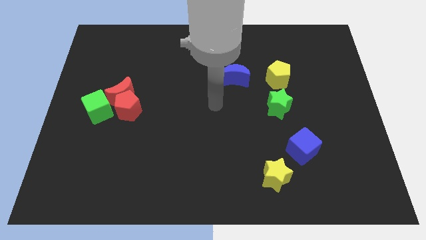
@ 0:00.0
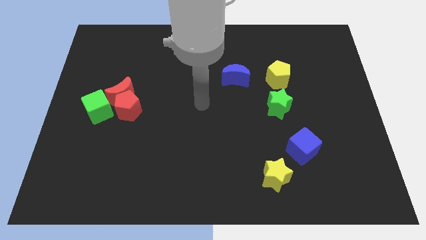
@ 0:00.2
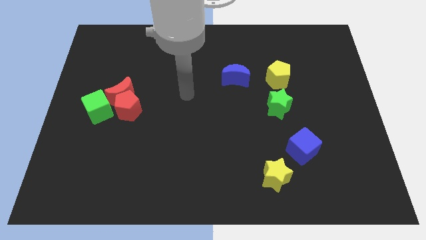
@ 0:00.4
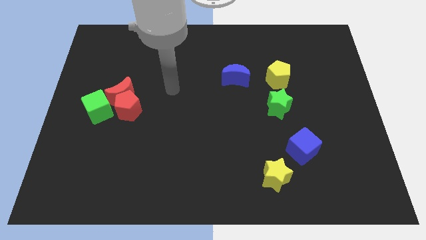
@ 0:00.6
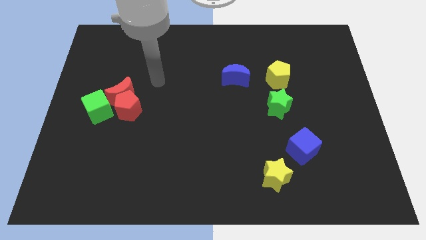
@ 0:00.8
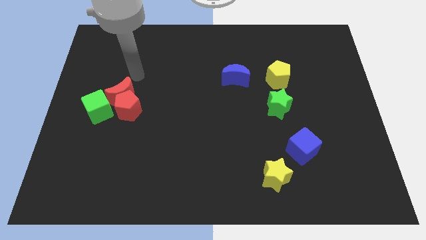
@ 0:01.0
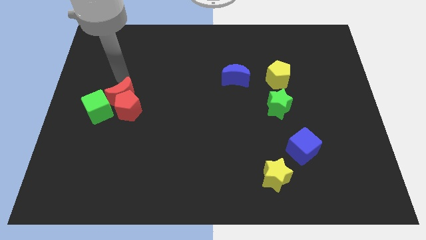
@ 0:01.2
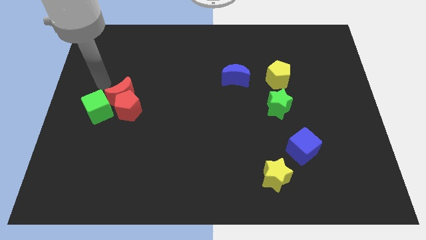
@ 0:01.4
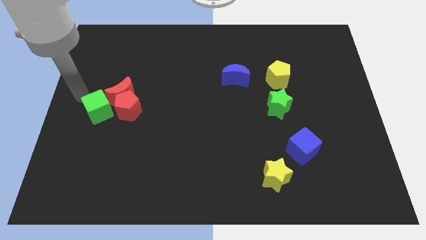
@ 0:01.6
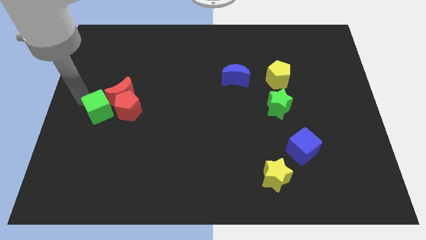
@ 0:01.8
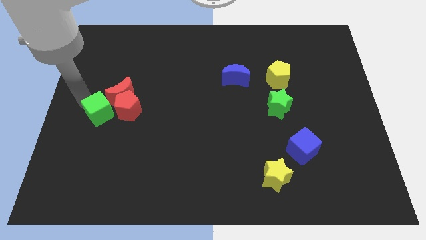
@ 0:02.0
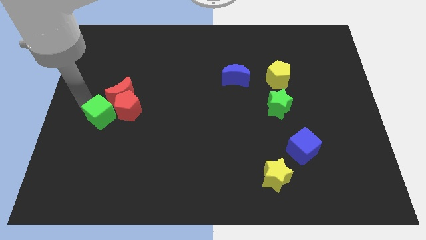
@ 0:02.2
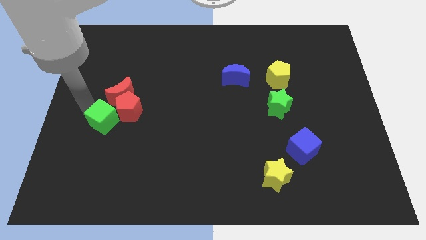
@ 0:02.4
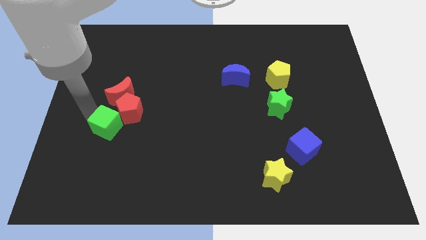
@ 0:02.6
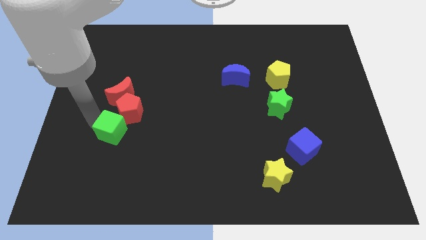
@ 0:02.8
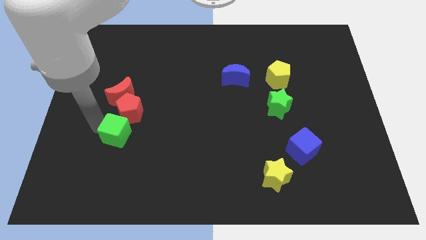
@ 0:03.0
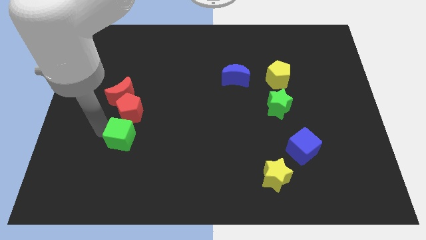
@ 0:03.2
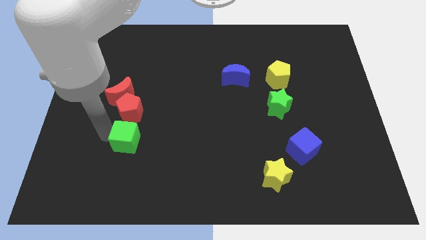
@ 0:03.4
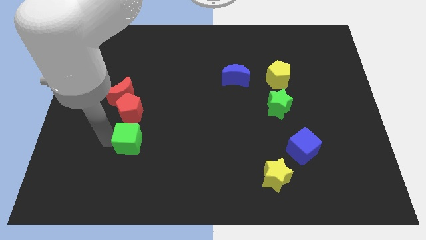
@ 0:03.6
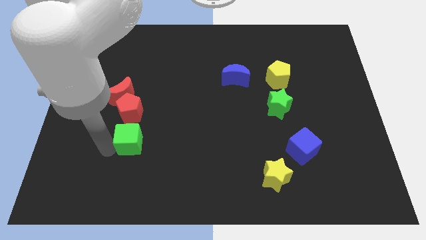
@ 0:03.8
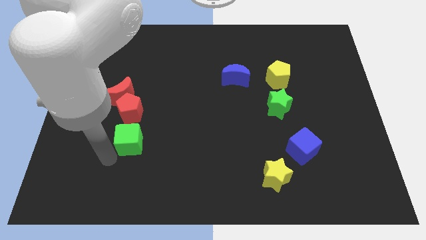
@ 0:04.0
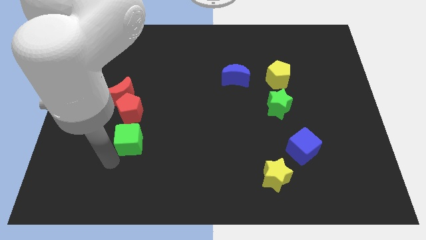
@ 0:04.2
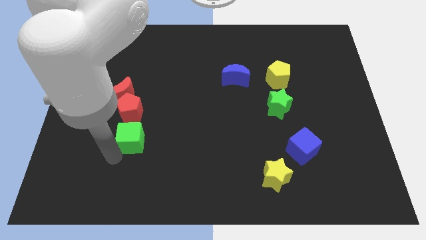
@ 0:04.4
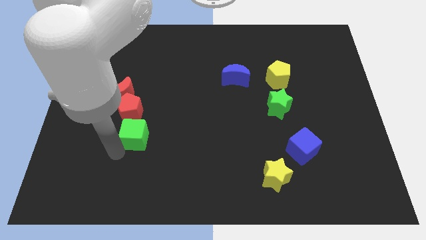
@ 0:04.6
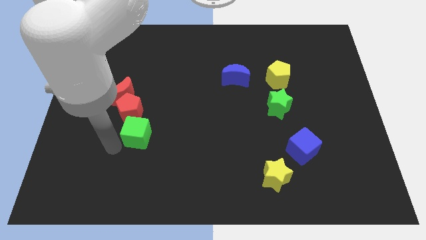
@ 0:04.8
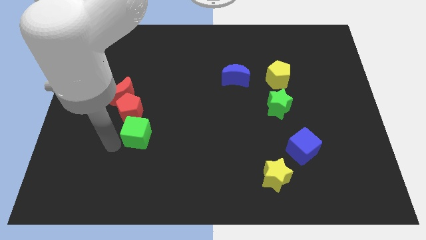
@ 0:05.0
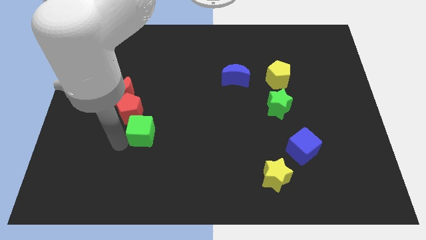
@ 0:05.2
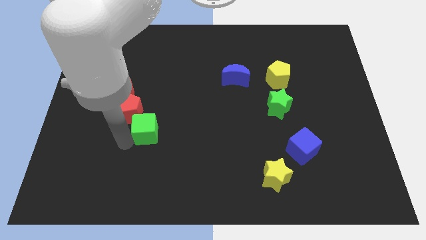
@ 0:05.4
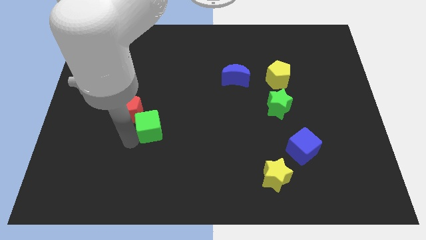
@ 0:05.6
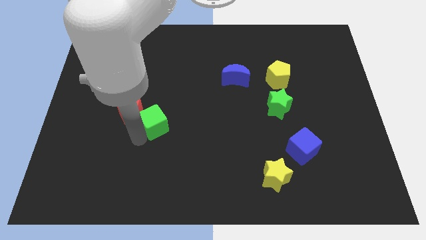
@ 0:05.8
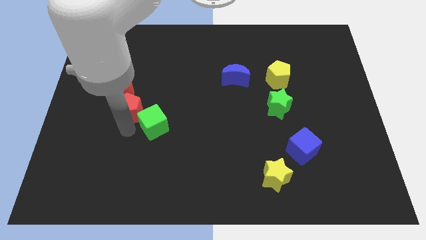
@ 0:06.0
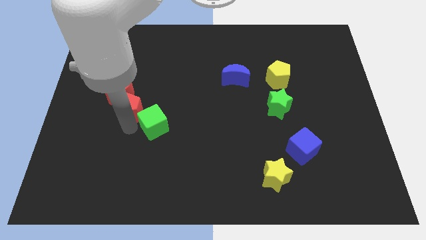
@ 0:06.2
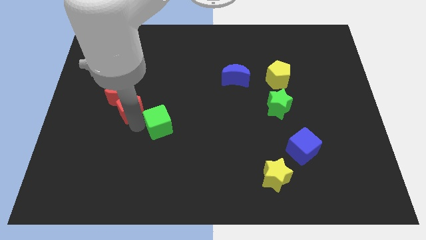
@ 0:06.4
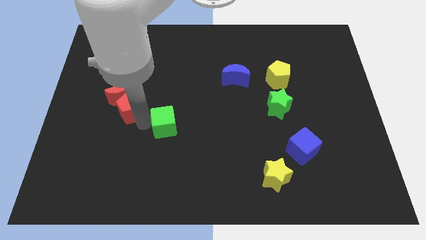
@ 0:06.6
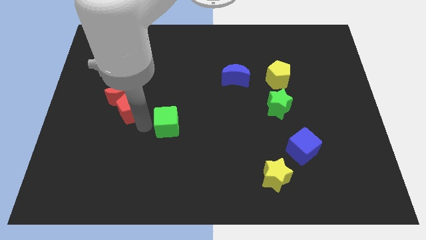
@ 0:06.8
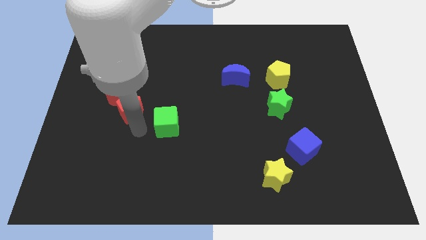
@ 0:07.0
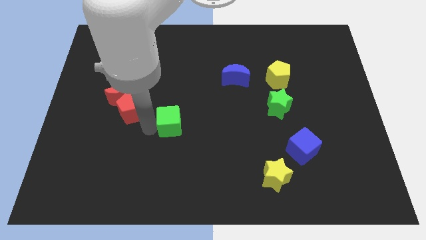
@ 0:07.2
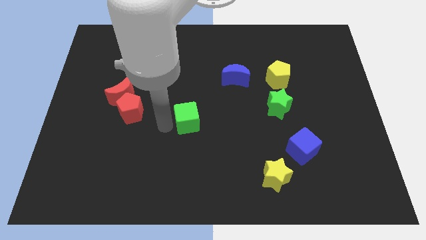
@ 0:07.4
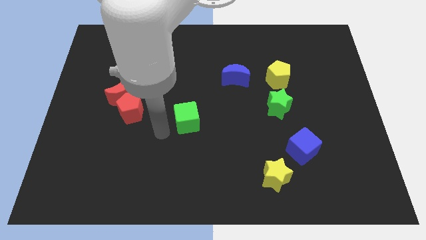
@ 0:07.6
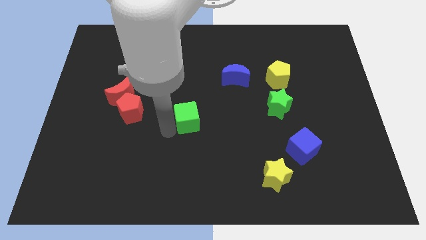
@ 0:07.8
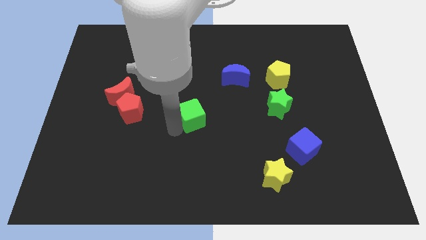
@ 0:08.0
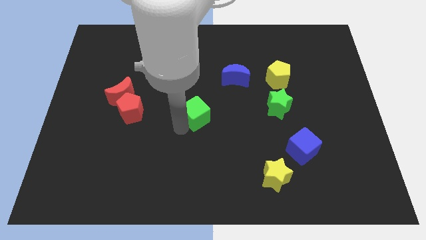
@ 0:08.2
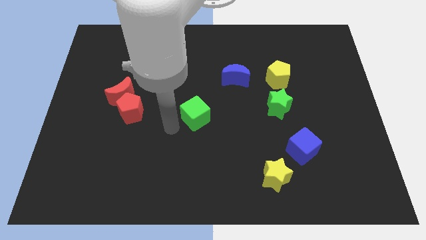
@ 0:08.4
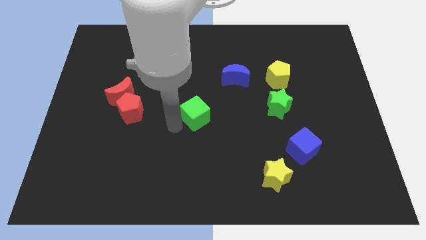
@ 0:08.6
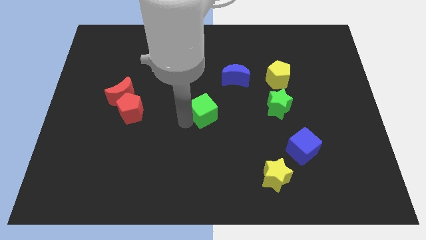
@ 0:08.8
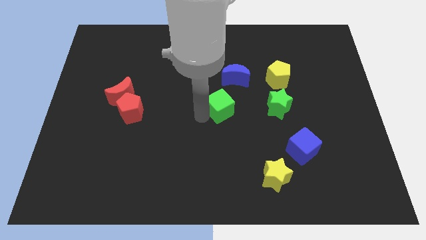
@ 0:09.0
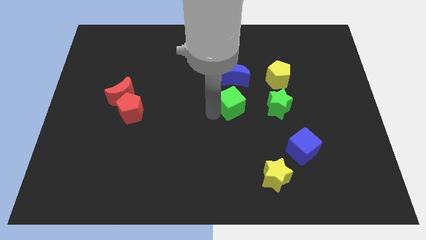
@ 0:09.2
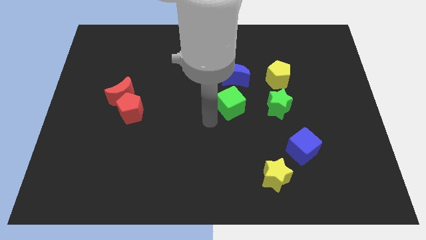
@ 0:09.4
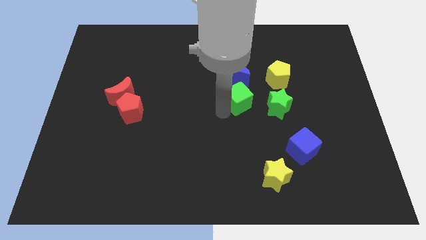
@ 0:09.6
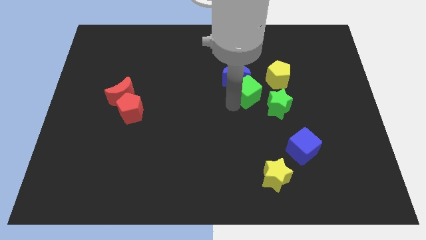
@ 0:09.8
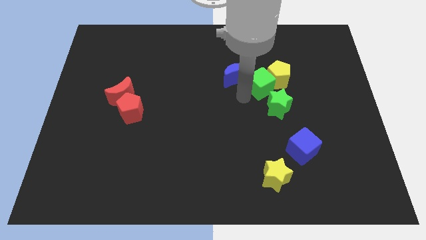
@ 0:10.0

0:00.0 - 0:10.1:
move the green cube next to the yellow pentagon

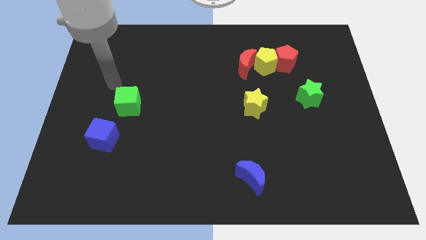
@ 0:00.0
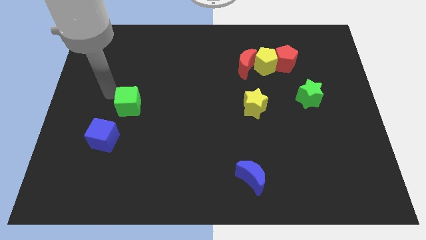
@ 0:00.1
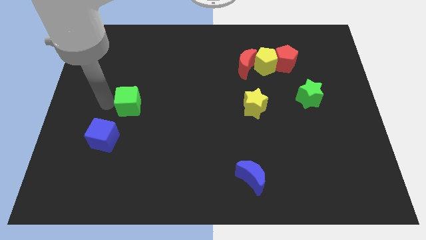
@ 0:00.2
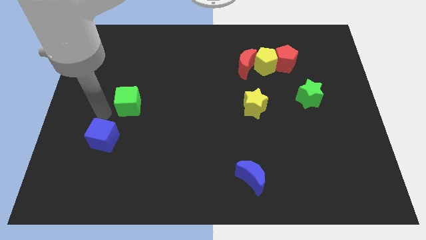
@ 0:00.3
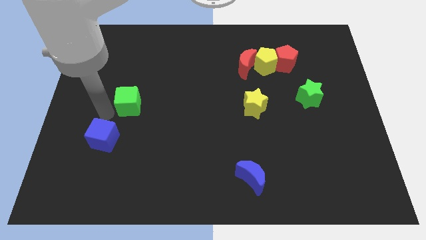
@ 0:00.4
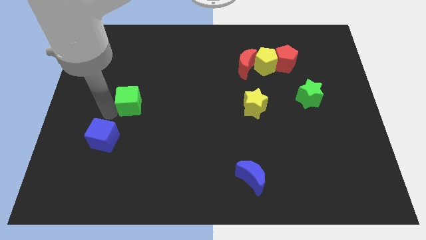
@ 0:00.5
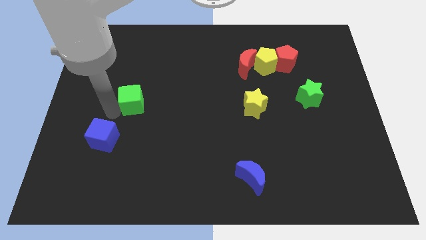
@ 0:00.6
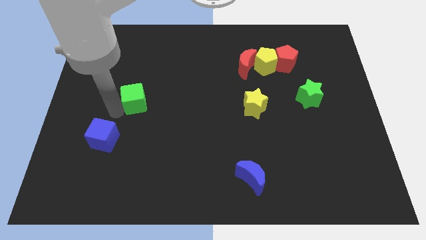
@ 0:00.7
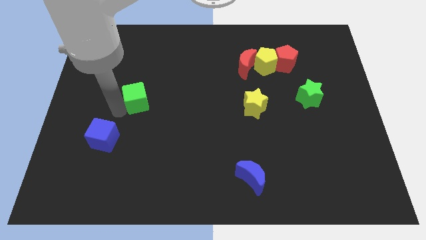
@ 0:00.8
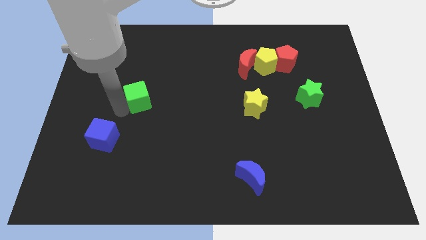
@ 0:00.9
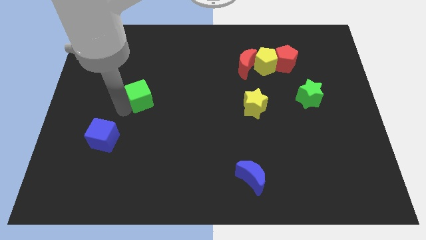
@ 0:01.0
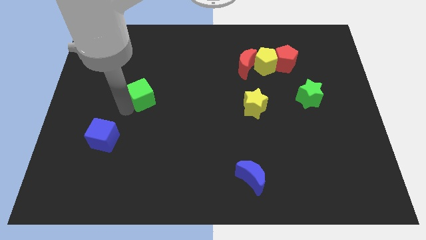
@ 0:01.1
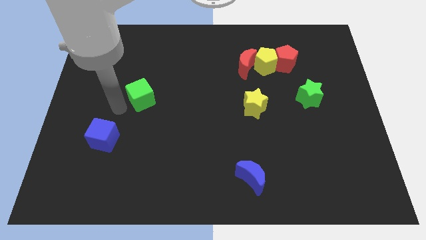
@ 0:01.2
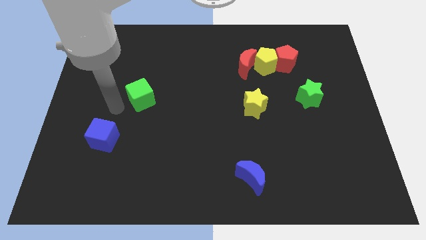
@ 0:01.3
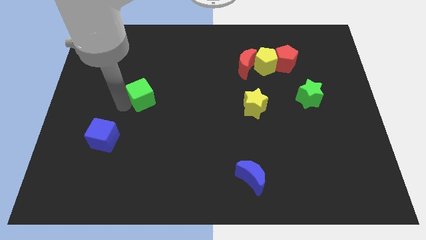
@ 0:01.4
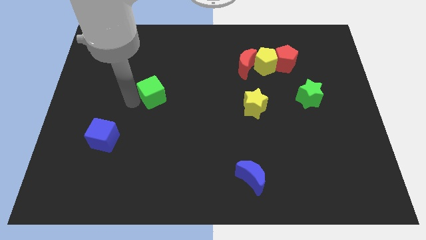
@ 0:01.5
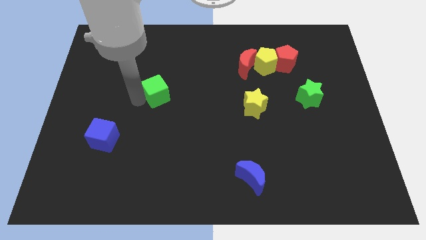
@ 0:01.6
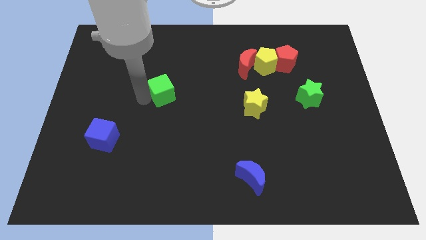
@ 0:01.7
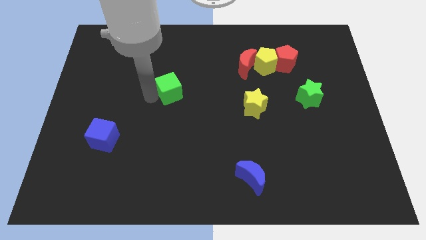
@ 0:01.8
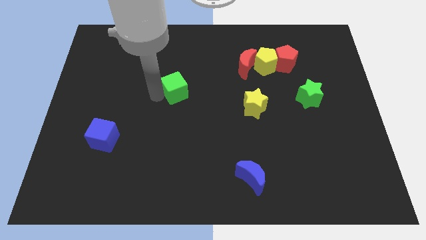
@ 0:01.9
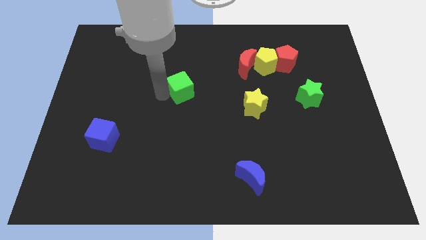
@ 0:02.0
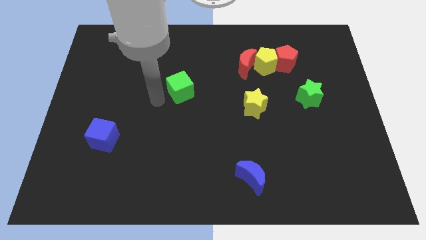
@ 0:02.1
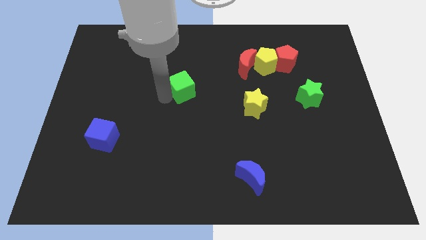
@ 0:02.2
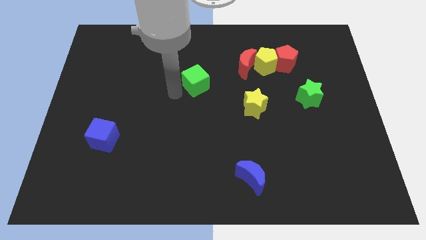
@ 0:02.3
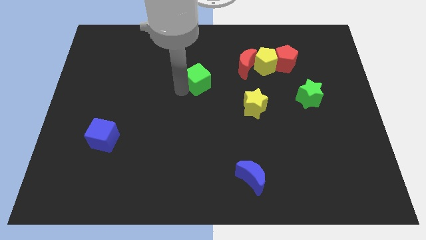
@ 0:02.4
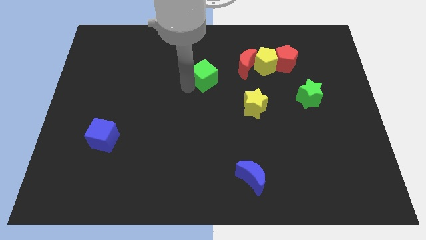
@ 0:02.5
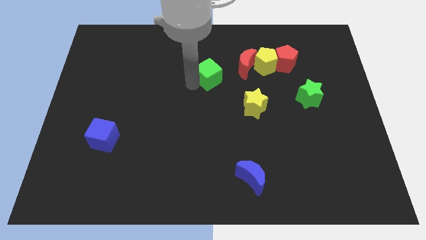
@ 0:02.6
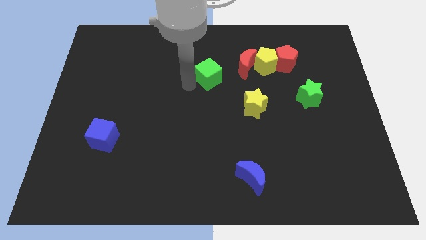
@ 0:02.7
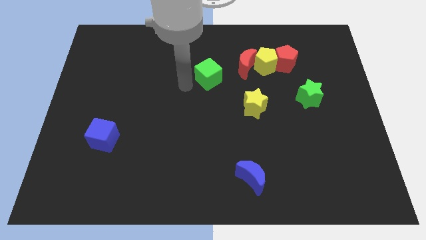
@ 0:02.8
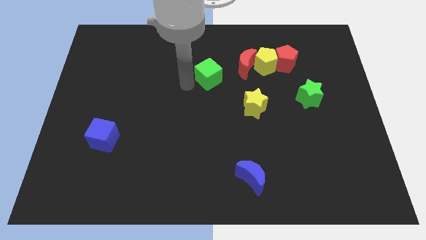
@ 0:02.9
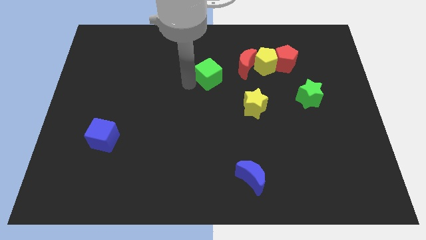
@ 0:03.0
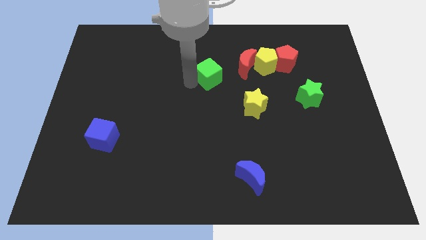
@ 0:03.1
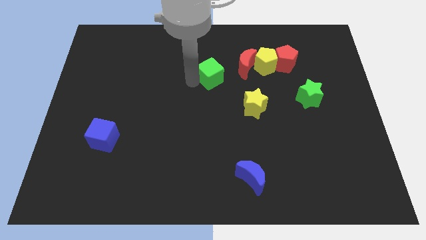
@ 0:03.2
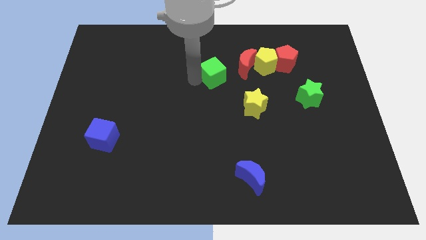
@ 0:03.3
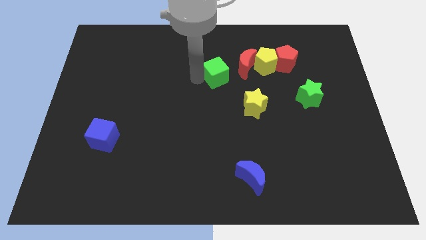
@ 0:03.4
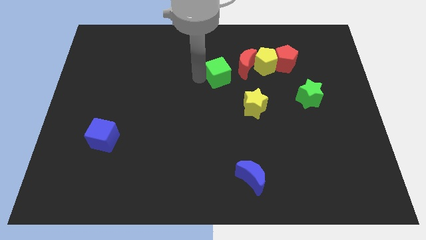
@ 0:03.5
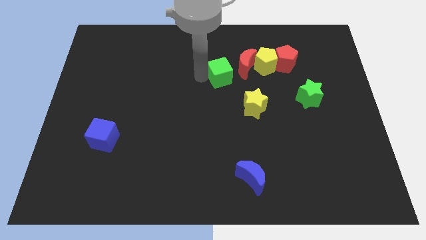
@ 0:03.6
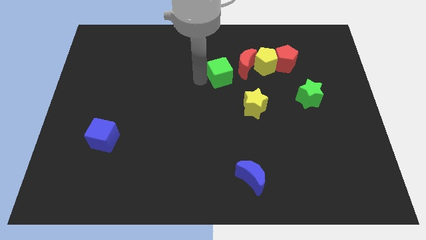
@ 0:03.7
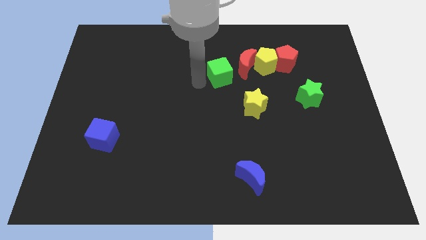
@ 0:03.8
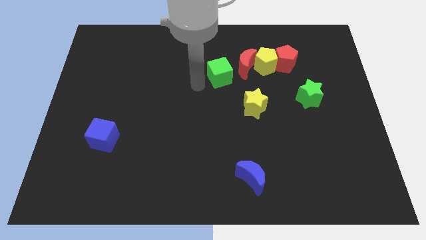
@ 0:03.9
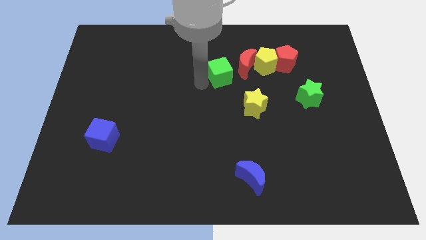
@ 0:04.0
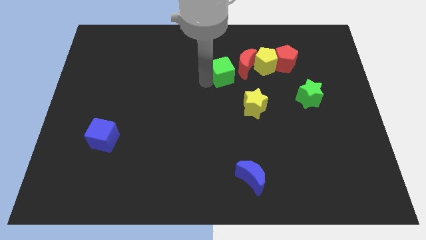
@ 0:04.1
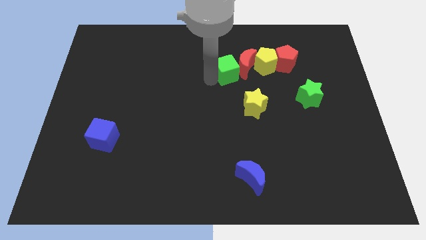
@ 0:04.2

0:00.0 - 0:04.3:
push the green cube close to the red moon
